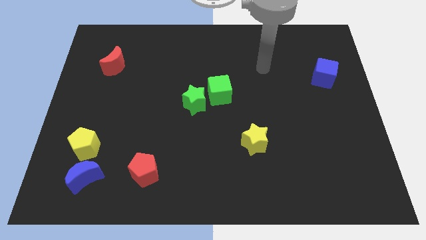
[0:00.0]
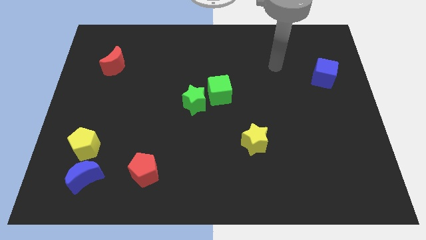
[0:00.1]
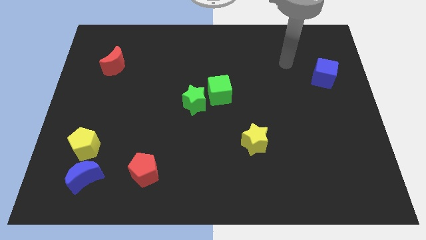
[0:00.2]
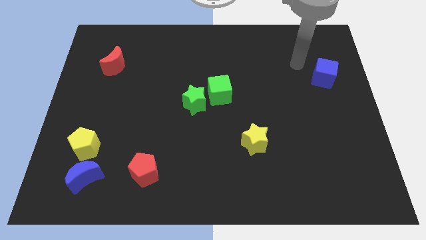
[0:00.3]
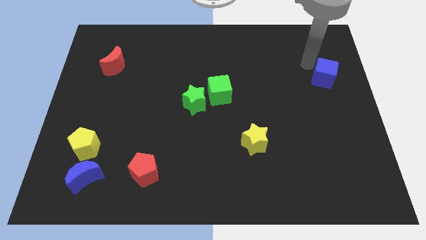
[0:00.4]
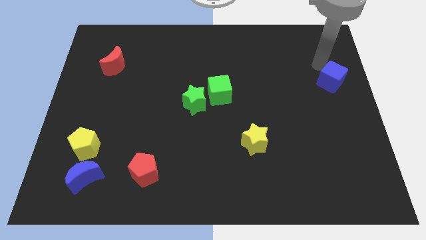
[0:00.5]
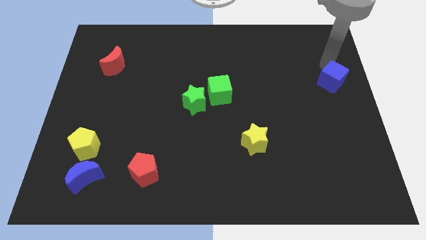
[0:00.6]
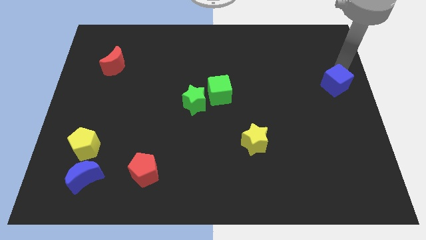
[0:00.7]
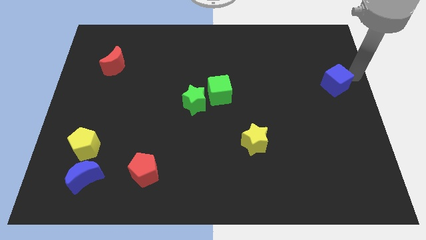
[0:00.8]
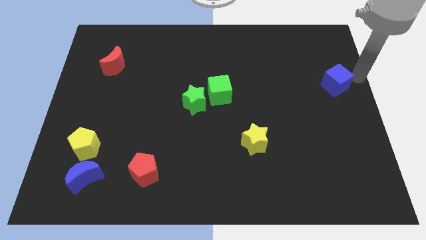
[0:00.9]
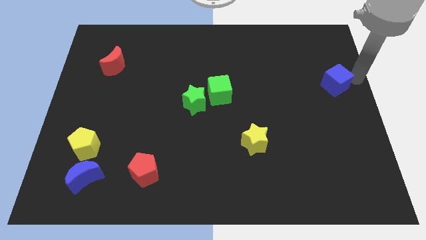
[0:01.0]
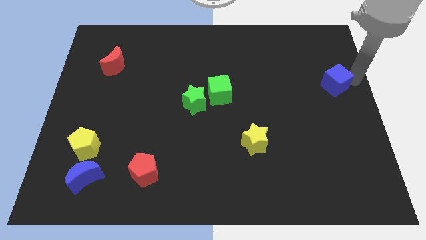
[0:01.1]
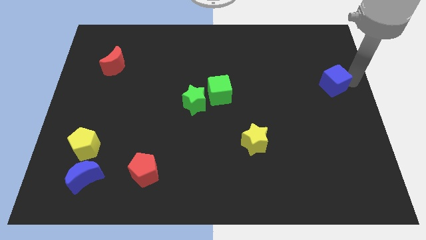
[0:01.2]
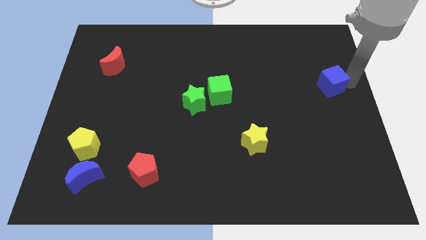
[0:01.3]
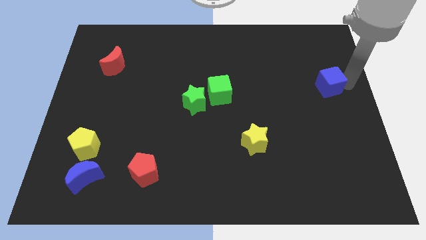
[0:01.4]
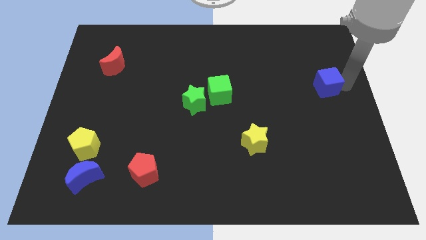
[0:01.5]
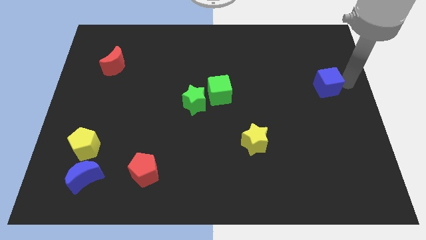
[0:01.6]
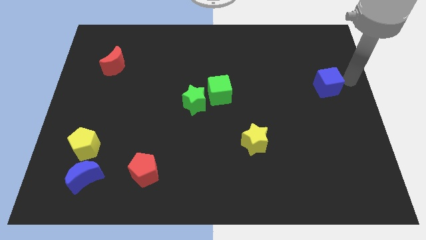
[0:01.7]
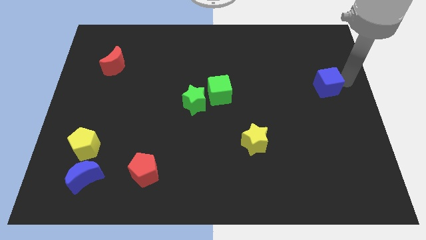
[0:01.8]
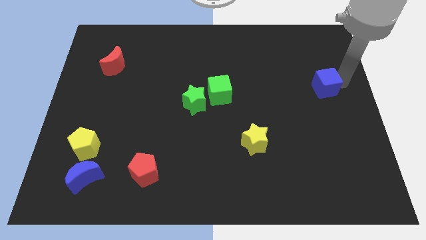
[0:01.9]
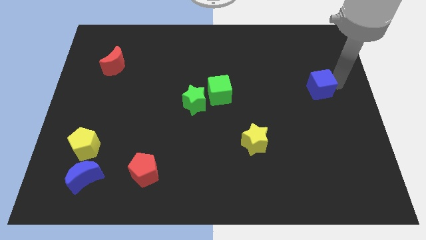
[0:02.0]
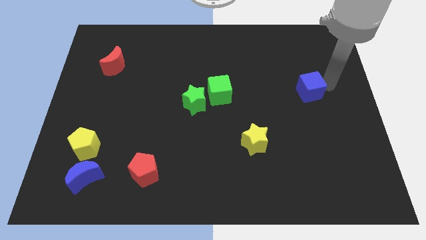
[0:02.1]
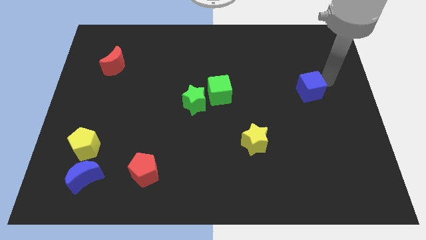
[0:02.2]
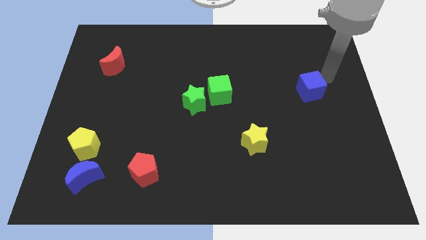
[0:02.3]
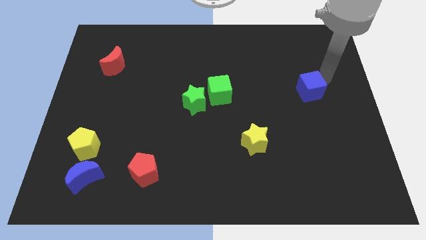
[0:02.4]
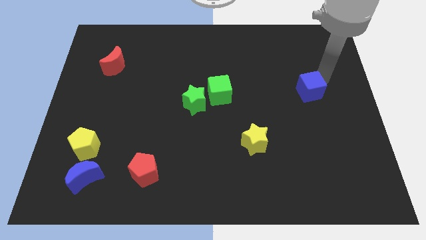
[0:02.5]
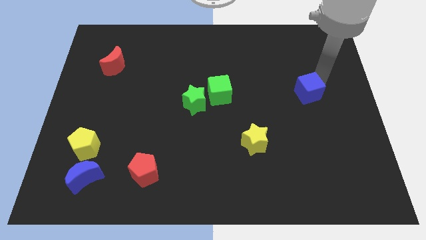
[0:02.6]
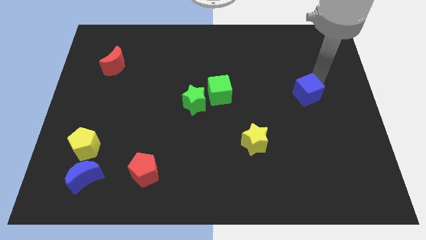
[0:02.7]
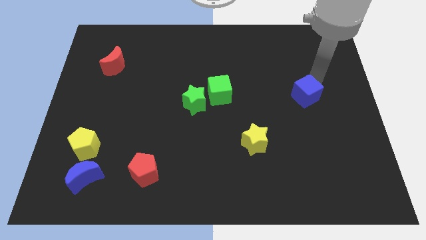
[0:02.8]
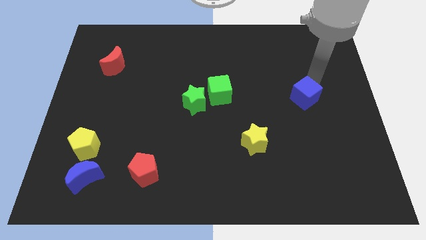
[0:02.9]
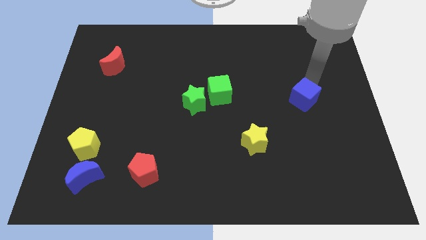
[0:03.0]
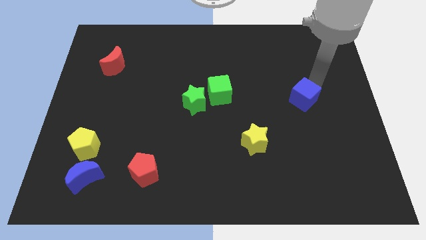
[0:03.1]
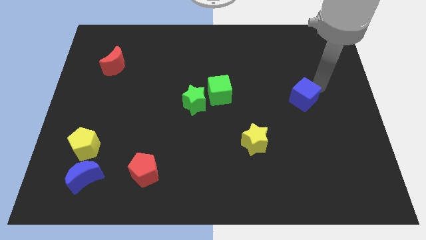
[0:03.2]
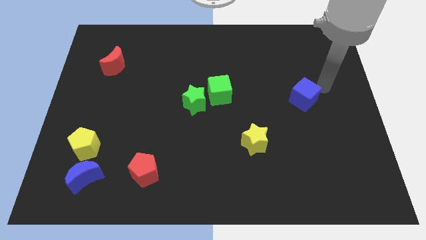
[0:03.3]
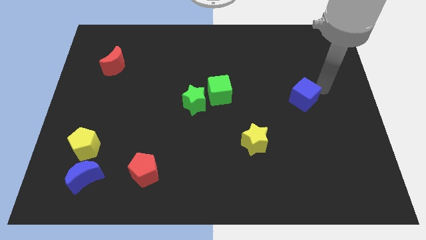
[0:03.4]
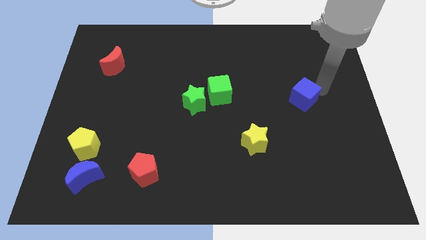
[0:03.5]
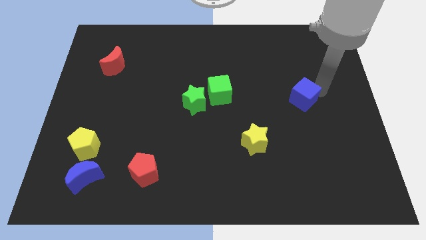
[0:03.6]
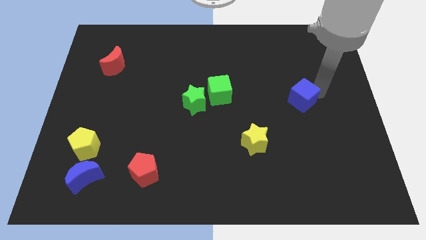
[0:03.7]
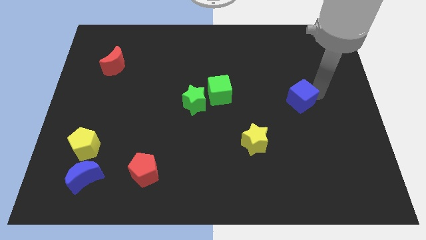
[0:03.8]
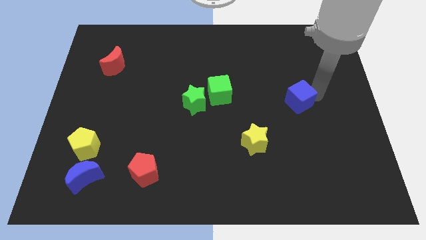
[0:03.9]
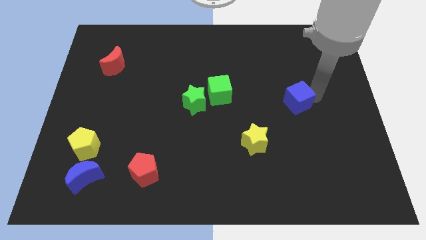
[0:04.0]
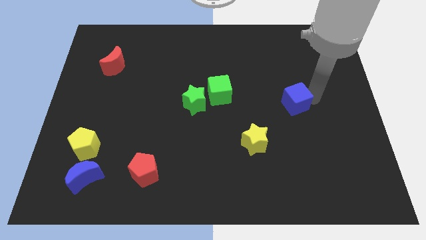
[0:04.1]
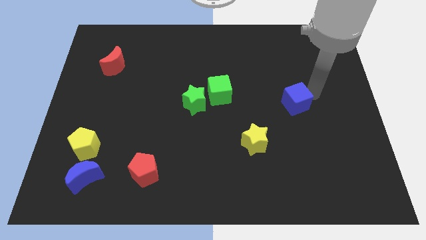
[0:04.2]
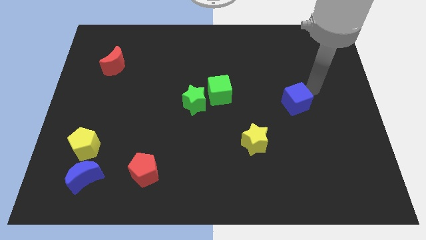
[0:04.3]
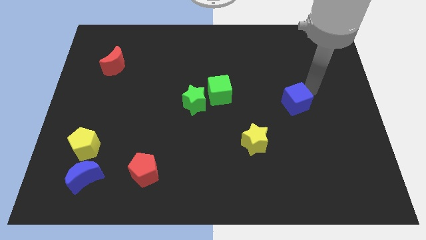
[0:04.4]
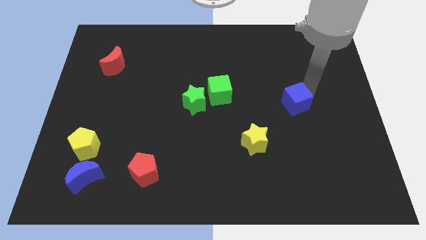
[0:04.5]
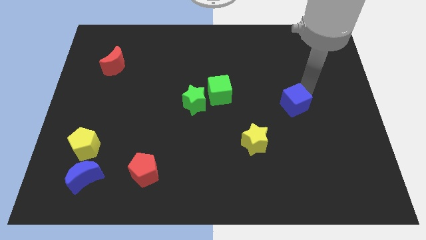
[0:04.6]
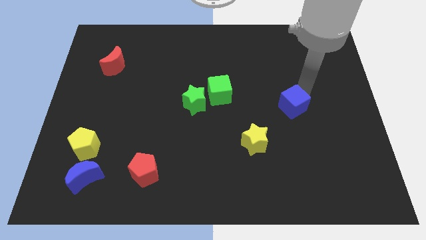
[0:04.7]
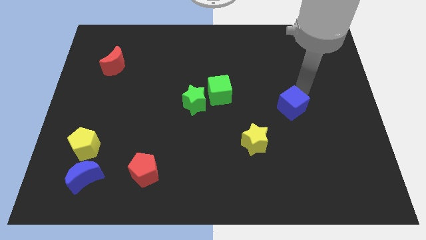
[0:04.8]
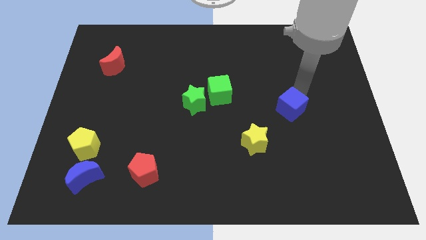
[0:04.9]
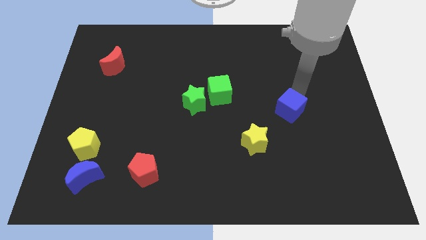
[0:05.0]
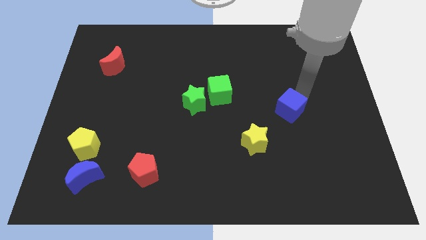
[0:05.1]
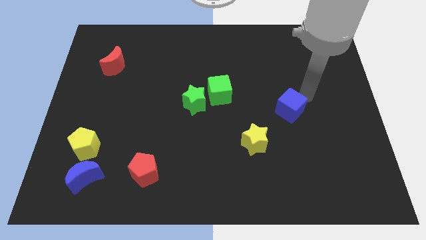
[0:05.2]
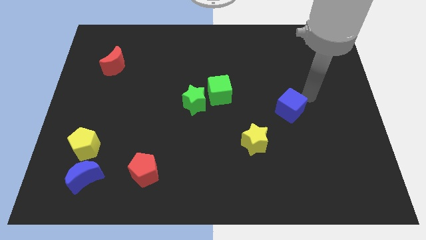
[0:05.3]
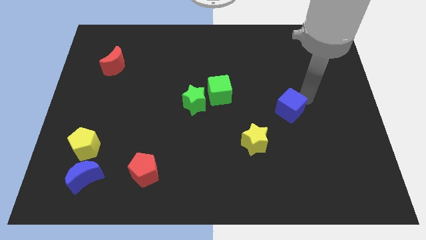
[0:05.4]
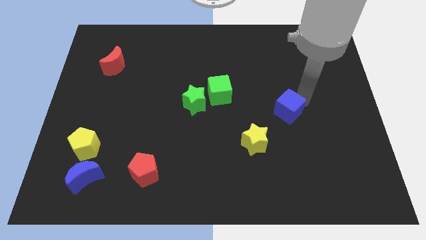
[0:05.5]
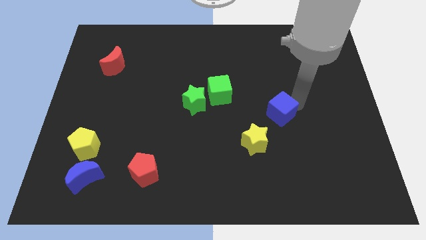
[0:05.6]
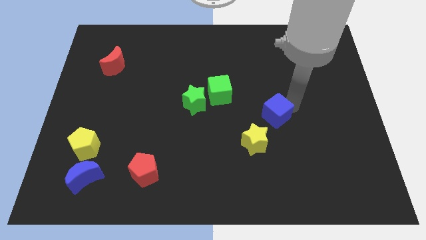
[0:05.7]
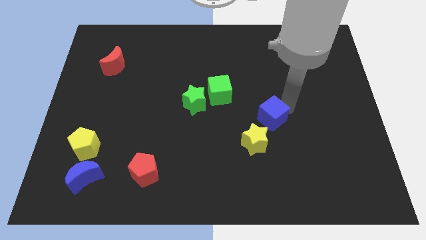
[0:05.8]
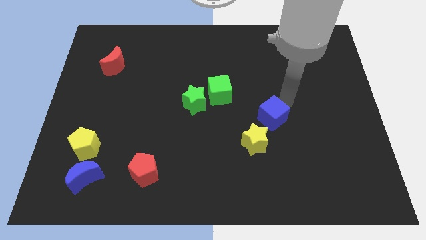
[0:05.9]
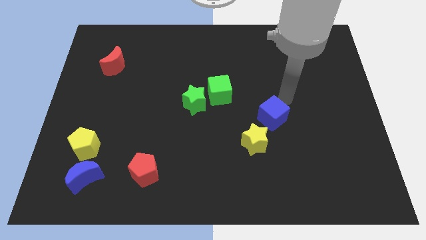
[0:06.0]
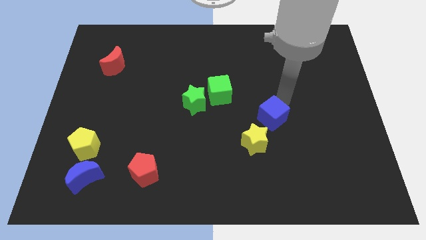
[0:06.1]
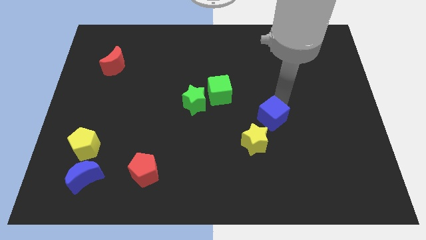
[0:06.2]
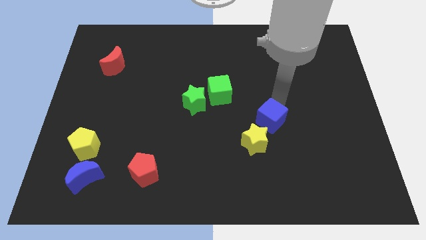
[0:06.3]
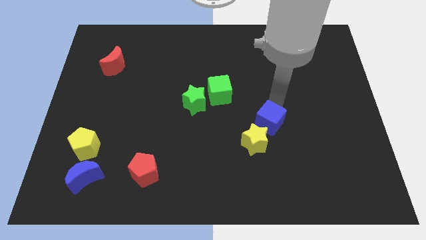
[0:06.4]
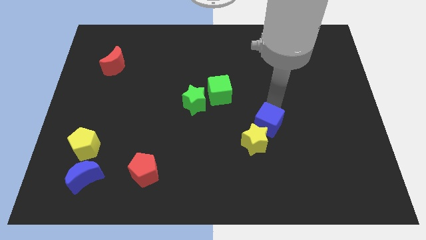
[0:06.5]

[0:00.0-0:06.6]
put the blue cube next to the yellow star

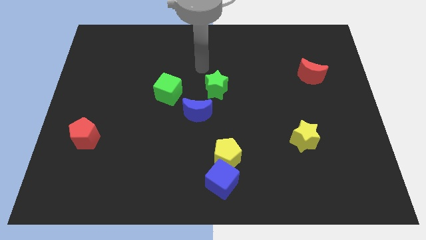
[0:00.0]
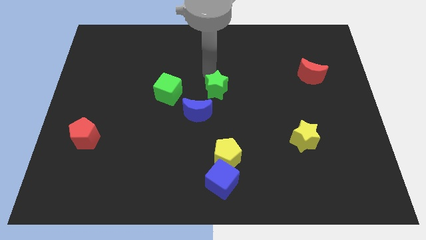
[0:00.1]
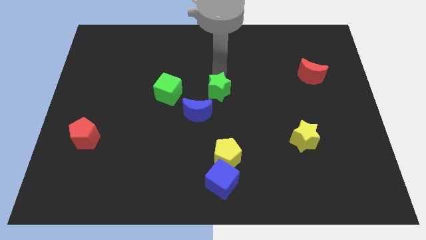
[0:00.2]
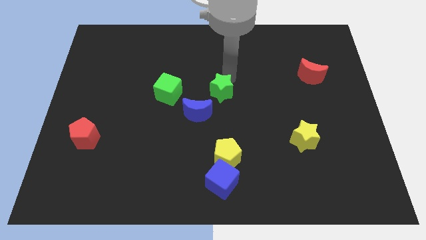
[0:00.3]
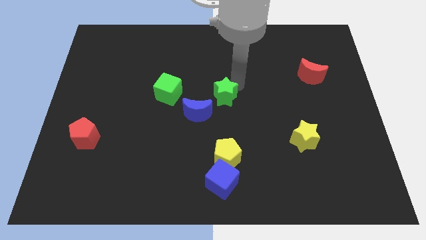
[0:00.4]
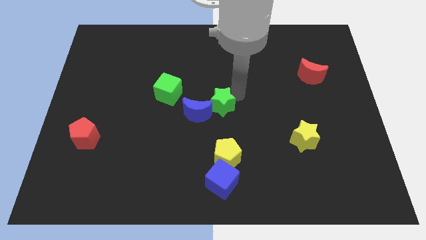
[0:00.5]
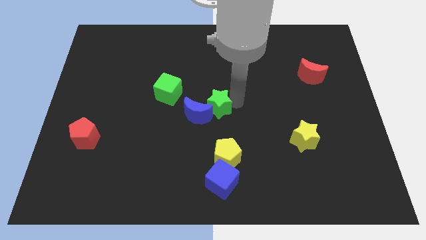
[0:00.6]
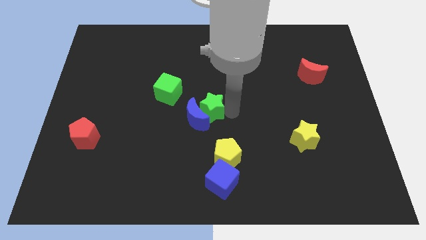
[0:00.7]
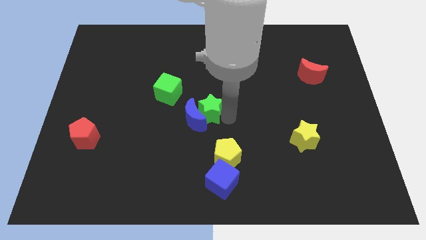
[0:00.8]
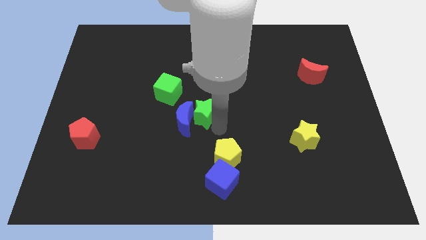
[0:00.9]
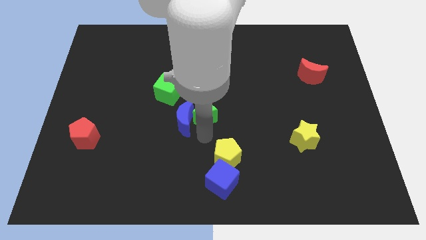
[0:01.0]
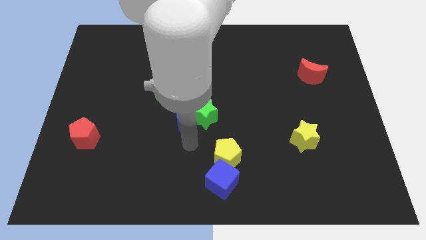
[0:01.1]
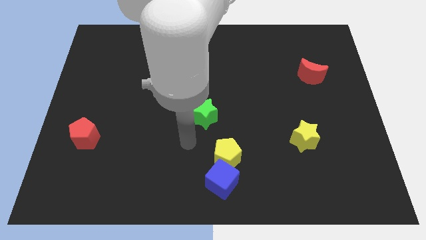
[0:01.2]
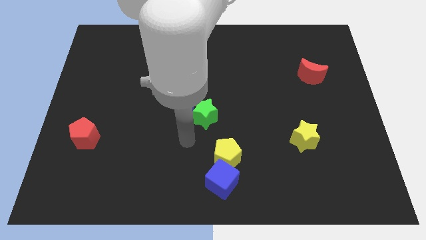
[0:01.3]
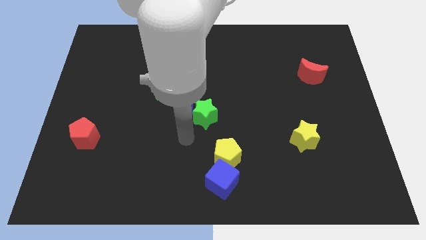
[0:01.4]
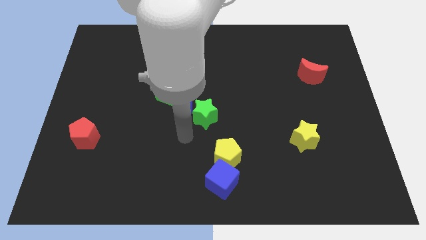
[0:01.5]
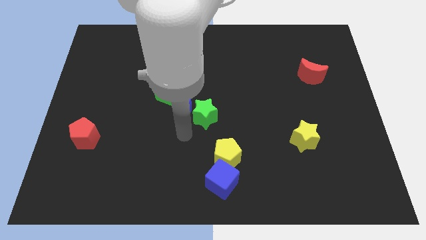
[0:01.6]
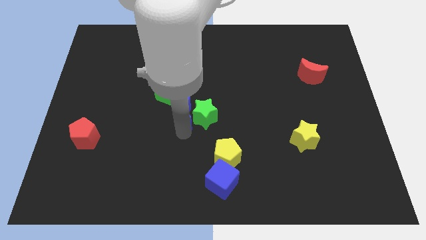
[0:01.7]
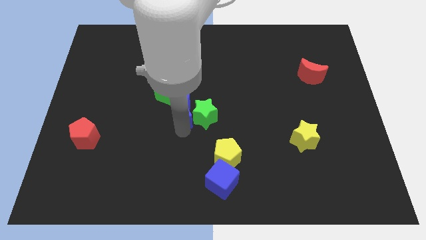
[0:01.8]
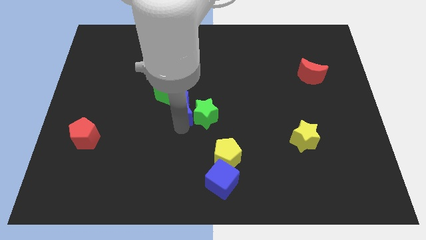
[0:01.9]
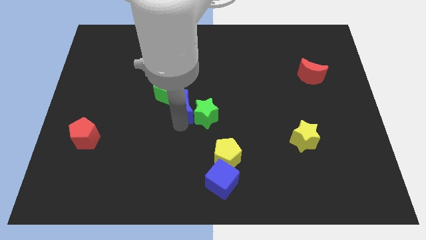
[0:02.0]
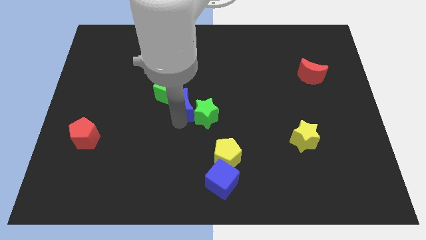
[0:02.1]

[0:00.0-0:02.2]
put the blue moon close to the green cube
